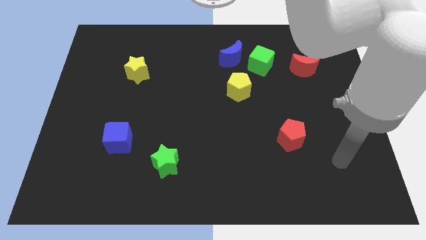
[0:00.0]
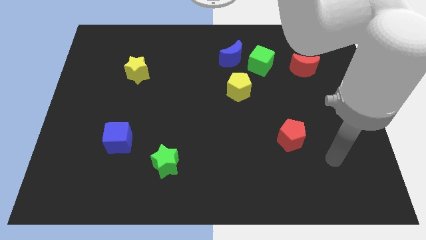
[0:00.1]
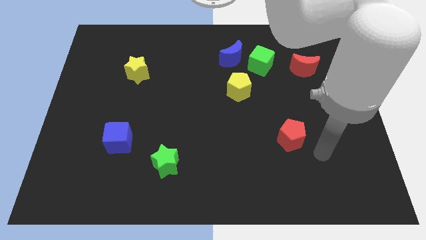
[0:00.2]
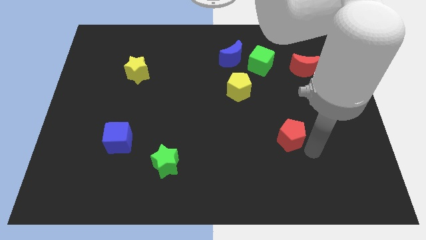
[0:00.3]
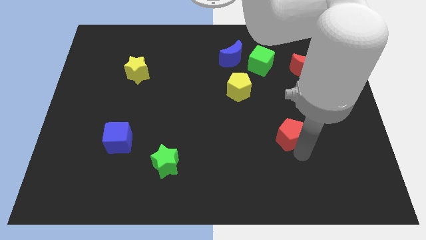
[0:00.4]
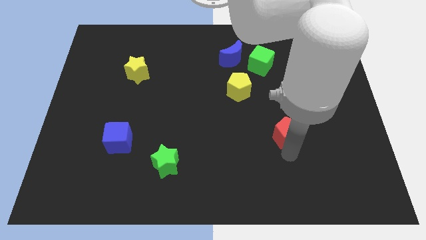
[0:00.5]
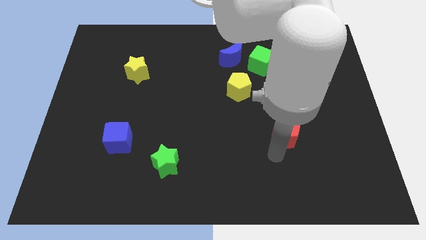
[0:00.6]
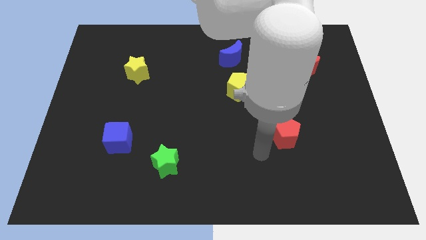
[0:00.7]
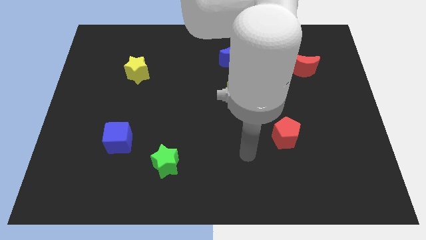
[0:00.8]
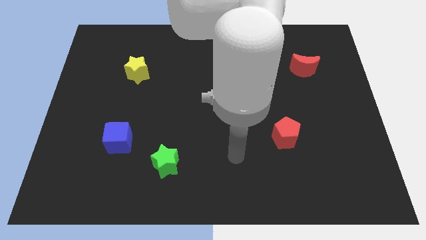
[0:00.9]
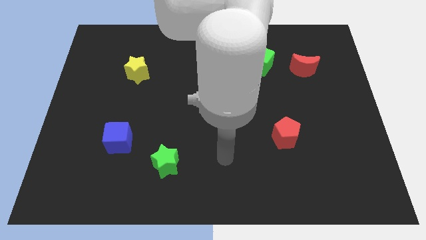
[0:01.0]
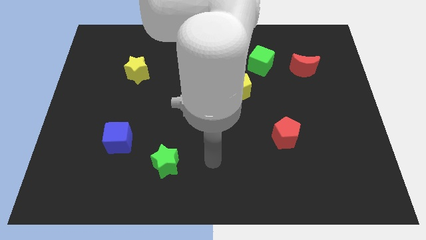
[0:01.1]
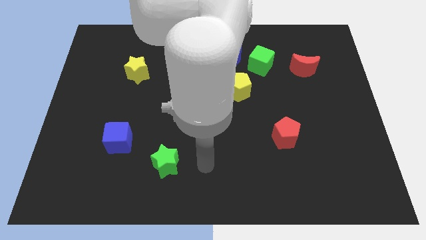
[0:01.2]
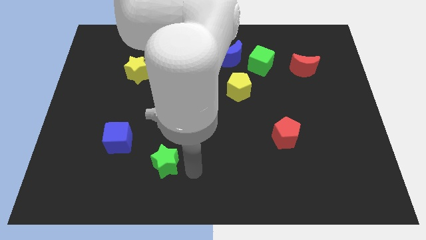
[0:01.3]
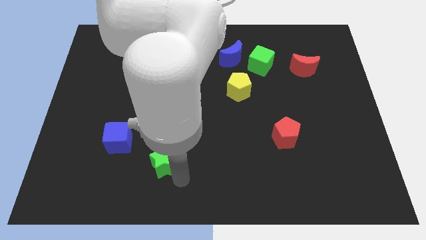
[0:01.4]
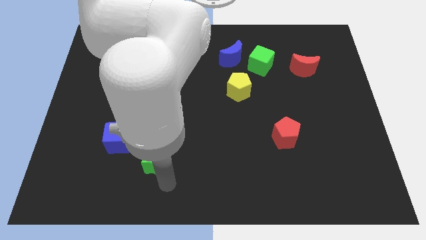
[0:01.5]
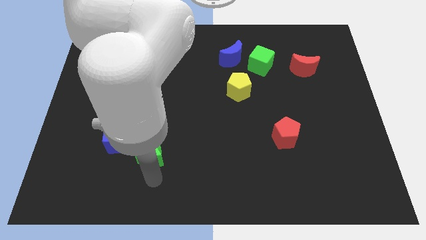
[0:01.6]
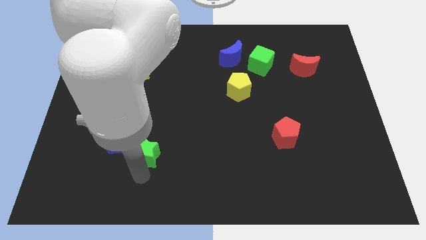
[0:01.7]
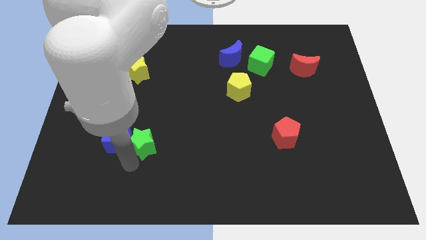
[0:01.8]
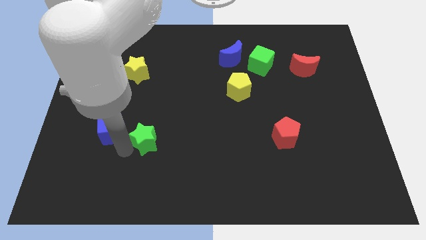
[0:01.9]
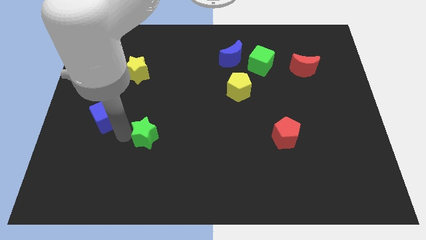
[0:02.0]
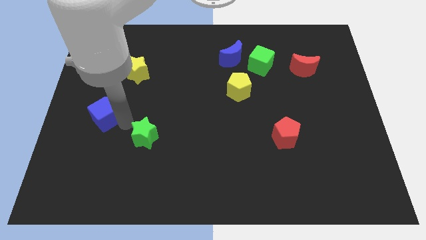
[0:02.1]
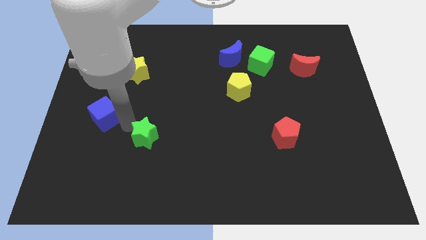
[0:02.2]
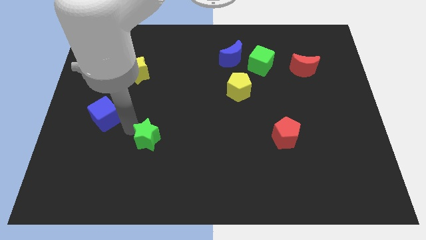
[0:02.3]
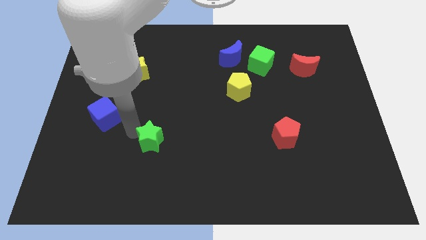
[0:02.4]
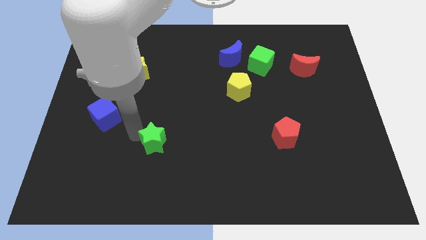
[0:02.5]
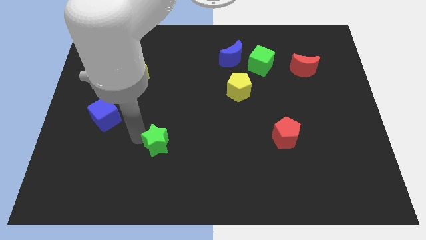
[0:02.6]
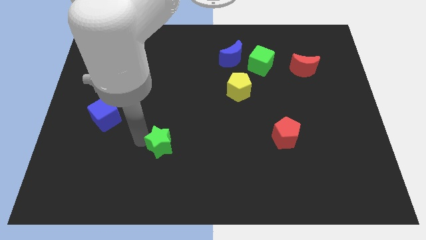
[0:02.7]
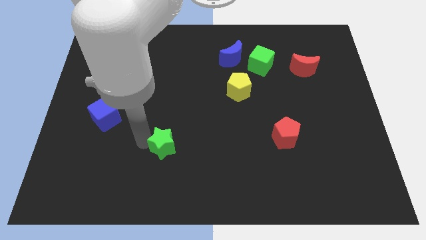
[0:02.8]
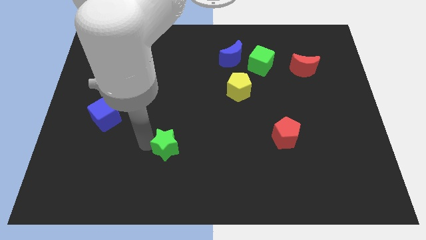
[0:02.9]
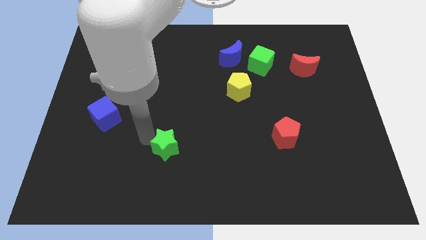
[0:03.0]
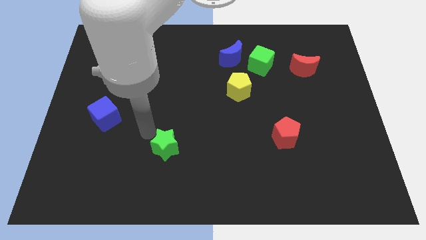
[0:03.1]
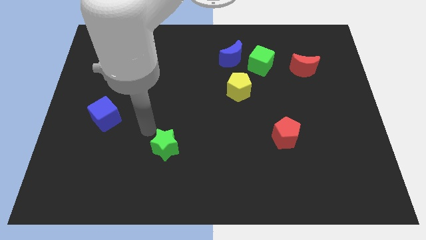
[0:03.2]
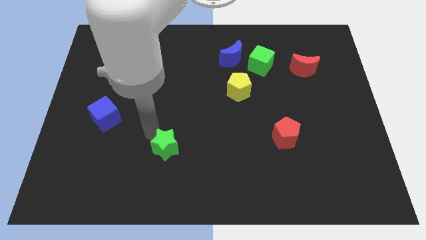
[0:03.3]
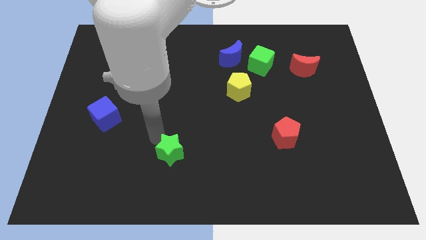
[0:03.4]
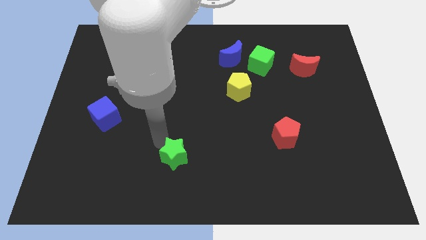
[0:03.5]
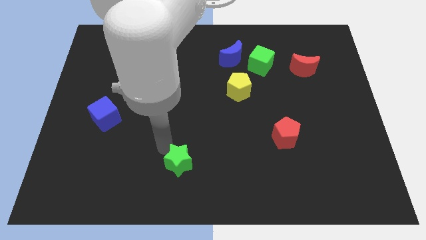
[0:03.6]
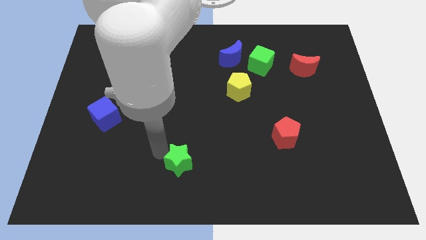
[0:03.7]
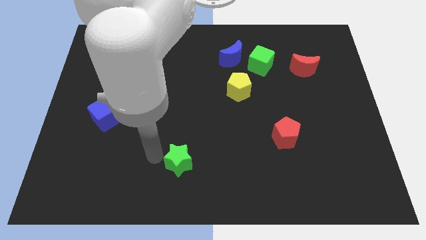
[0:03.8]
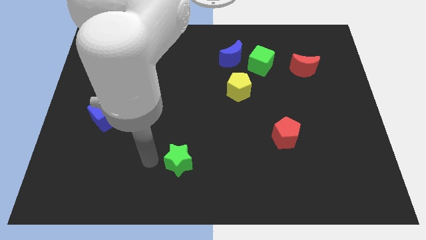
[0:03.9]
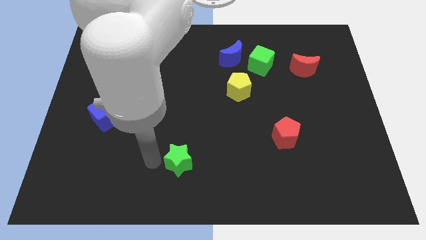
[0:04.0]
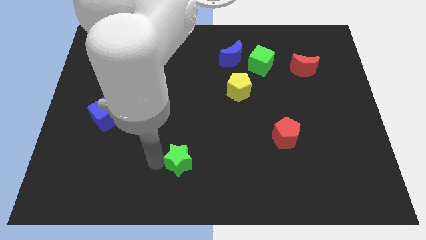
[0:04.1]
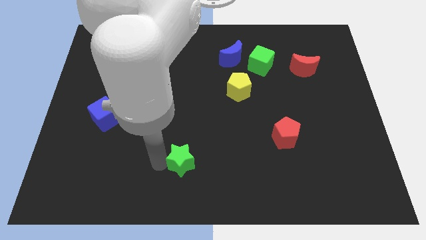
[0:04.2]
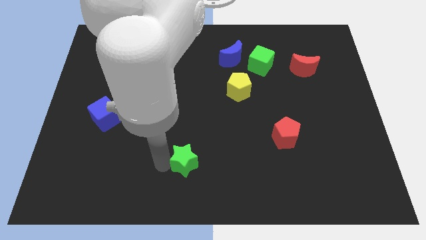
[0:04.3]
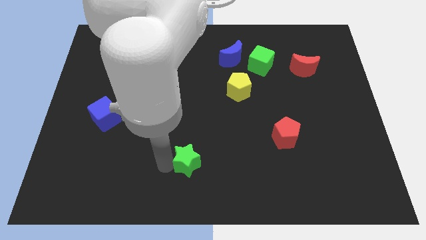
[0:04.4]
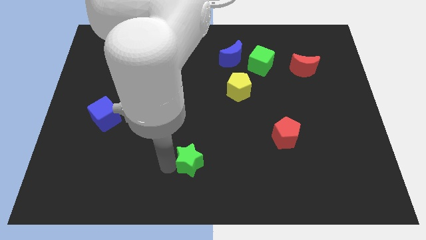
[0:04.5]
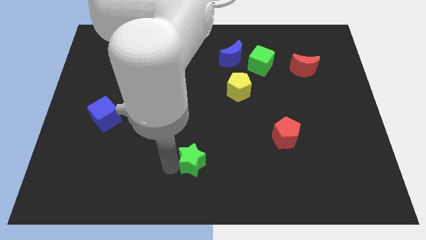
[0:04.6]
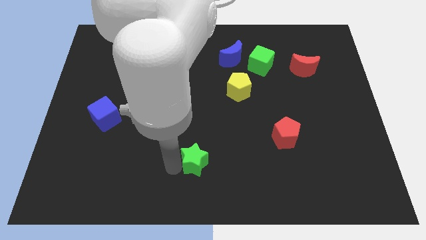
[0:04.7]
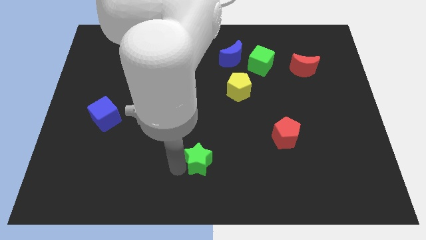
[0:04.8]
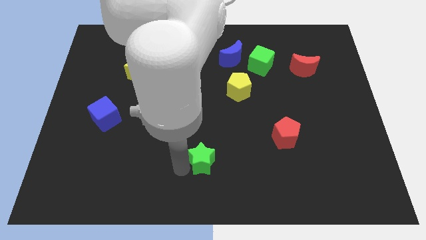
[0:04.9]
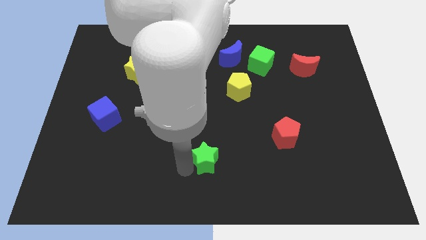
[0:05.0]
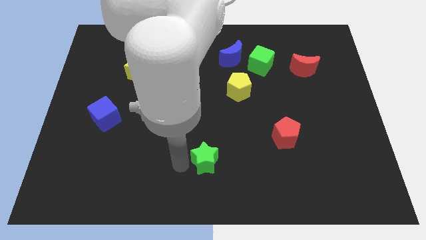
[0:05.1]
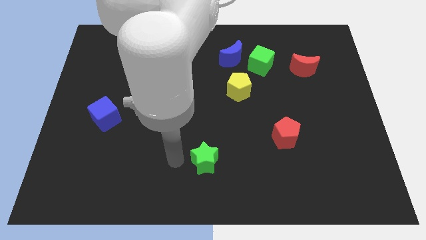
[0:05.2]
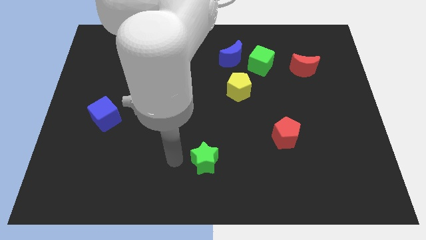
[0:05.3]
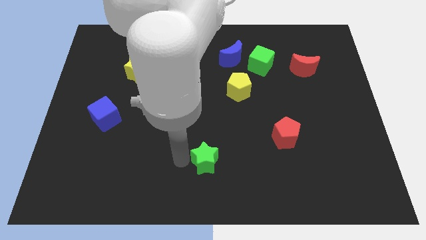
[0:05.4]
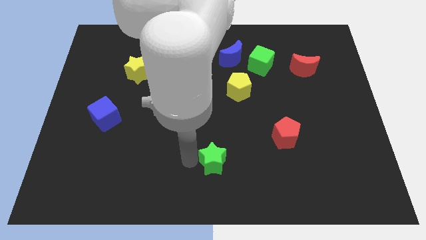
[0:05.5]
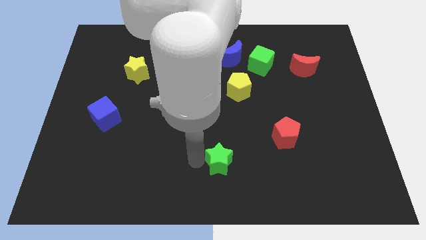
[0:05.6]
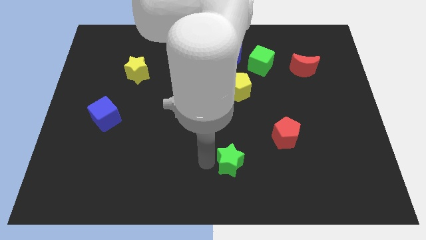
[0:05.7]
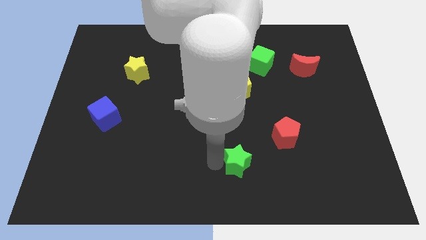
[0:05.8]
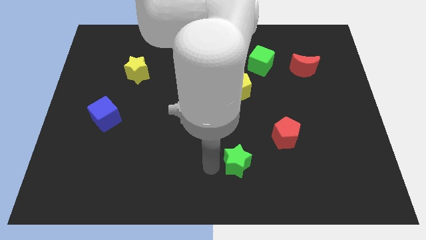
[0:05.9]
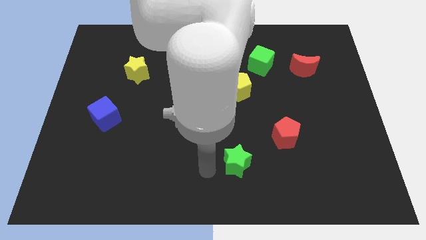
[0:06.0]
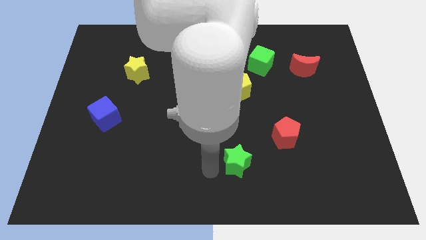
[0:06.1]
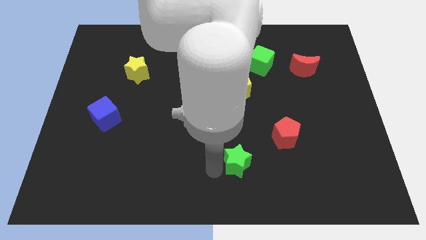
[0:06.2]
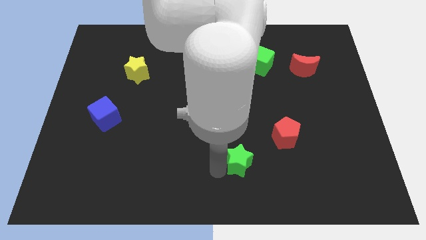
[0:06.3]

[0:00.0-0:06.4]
put the green star to the bottom left of the red pentagon
